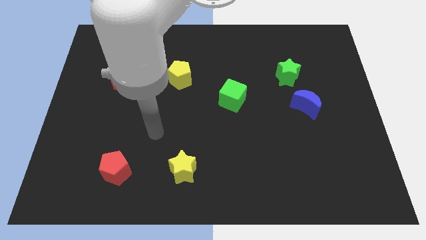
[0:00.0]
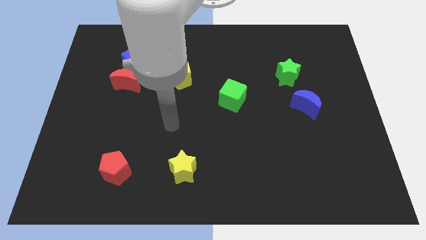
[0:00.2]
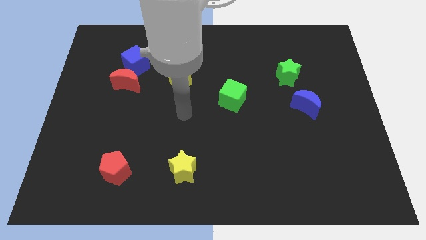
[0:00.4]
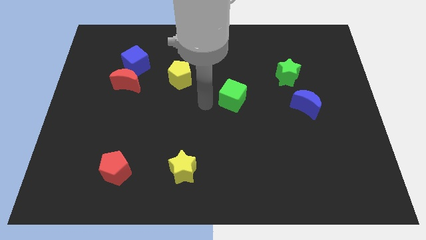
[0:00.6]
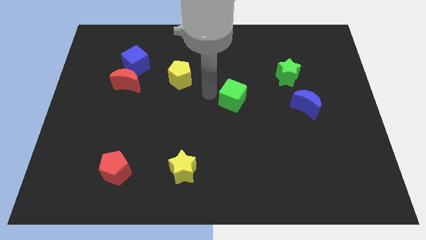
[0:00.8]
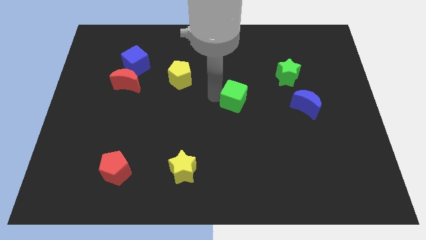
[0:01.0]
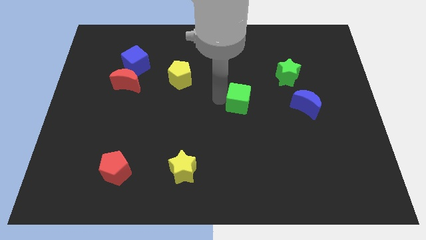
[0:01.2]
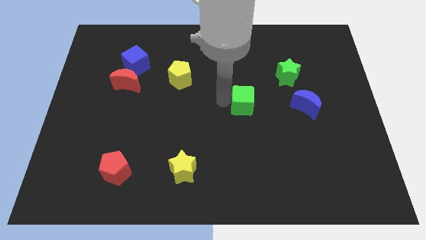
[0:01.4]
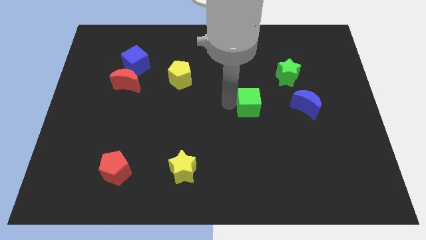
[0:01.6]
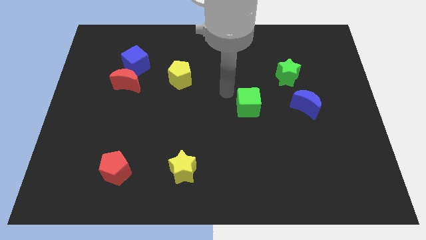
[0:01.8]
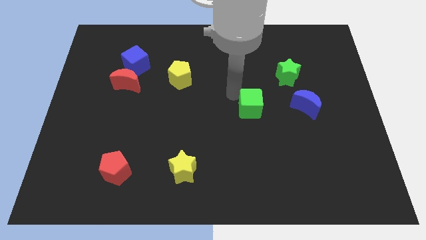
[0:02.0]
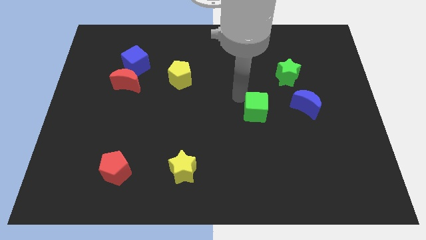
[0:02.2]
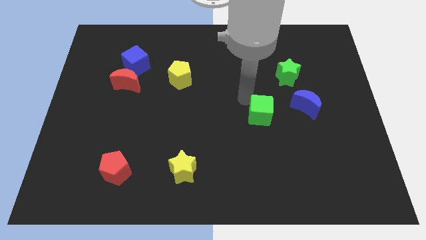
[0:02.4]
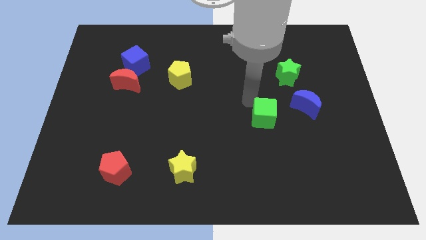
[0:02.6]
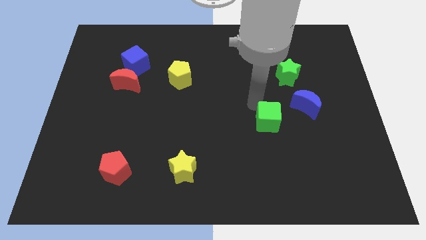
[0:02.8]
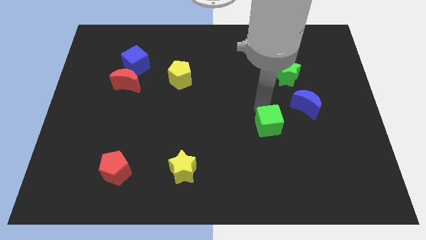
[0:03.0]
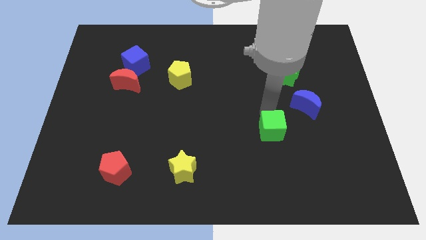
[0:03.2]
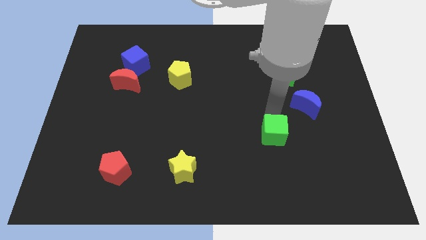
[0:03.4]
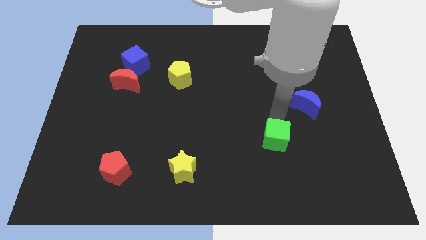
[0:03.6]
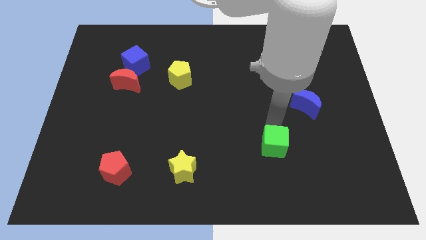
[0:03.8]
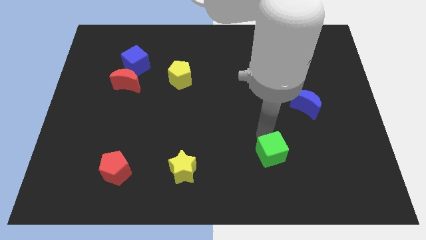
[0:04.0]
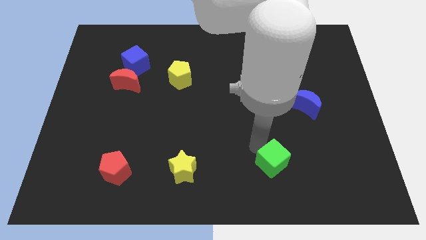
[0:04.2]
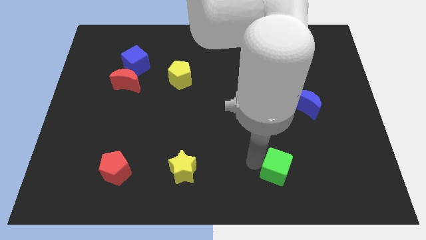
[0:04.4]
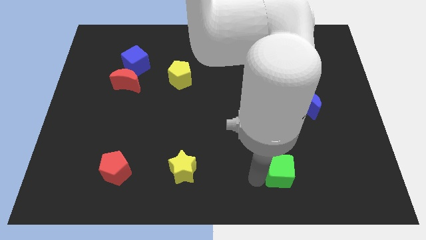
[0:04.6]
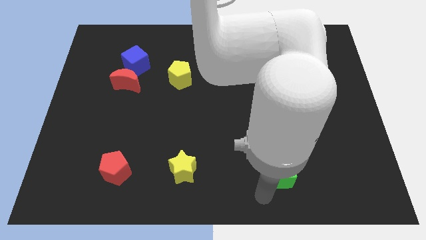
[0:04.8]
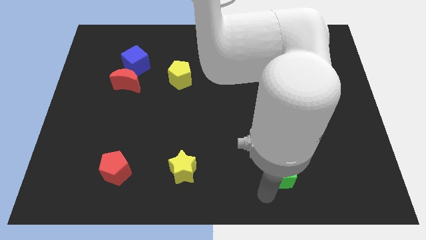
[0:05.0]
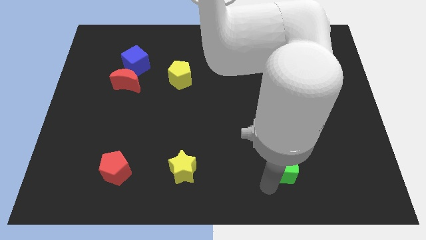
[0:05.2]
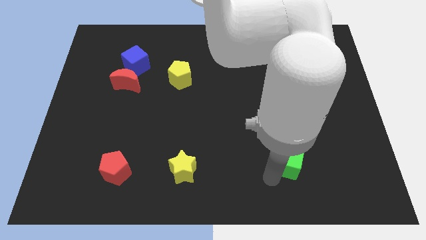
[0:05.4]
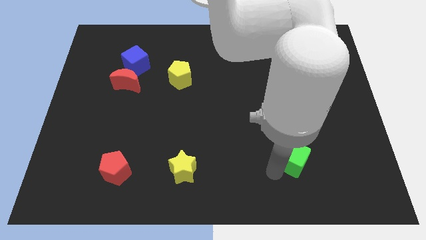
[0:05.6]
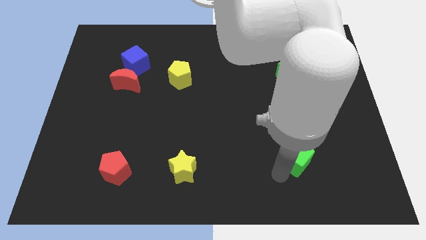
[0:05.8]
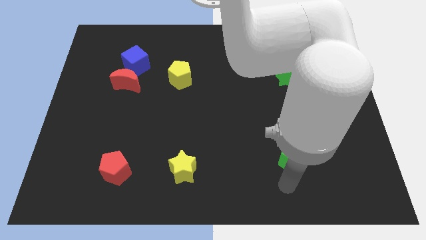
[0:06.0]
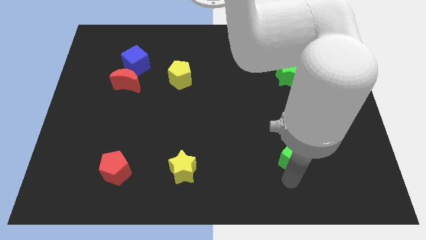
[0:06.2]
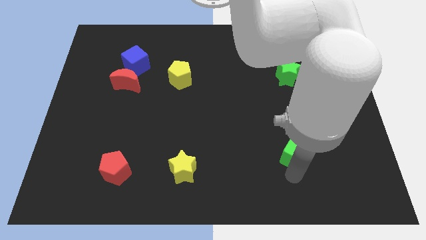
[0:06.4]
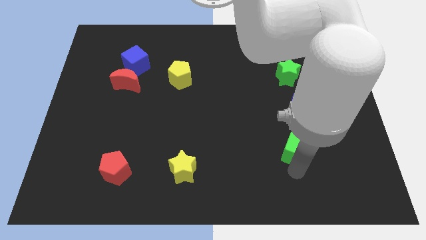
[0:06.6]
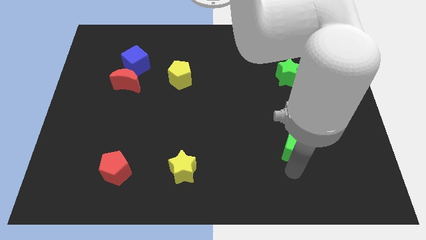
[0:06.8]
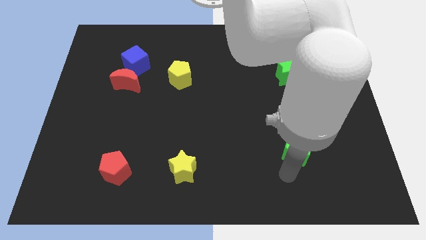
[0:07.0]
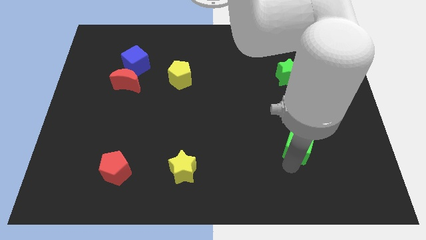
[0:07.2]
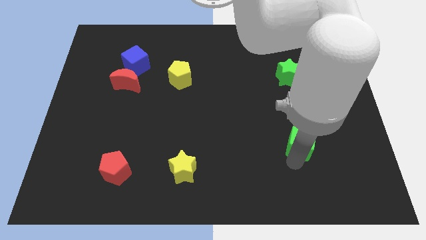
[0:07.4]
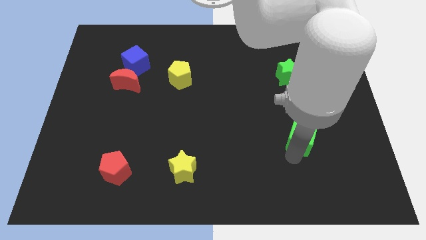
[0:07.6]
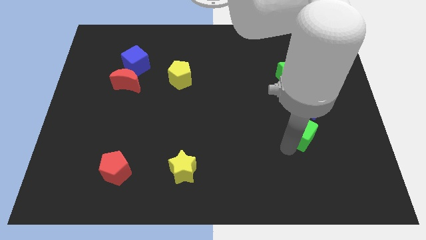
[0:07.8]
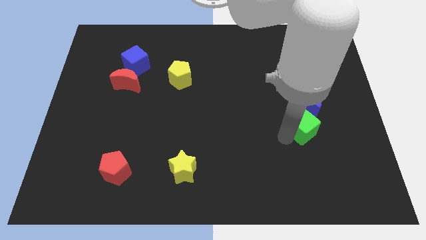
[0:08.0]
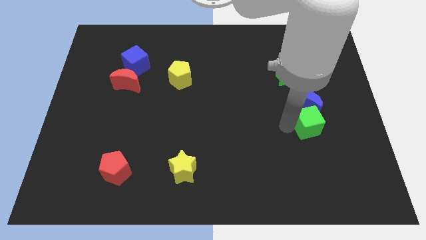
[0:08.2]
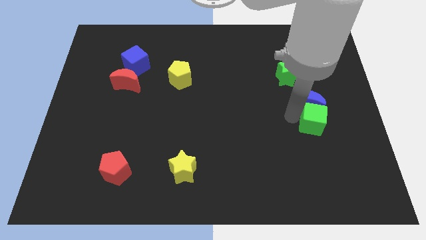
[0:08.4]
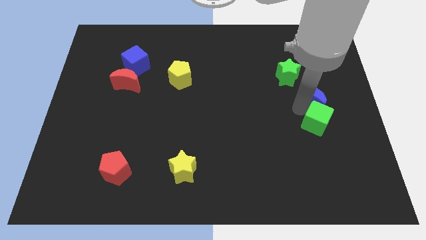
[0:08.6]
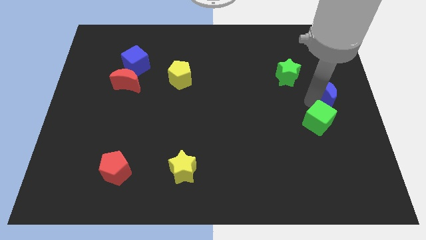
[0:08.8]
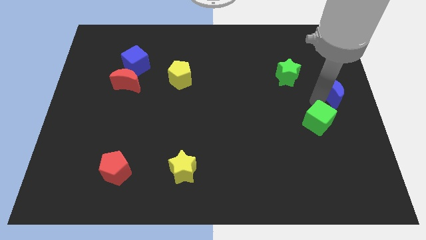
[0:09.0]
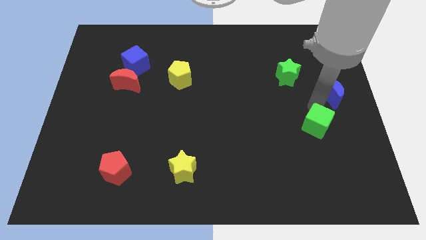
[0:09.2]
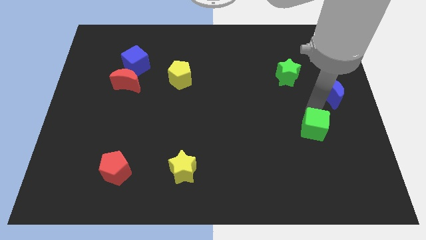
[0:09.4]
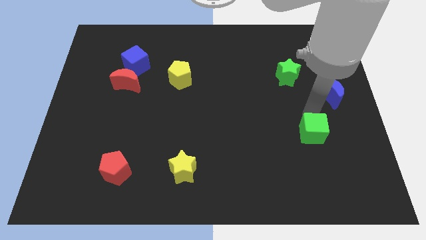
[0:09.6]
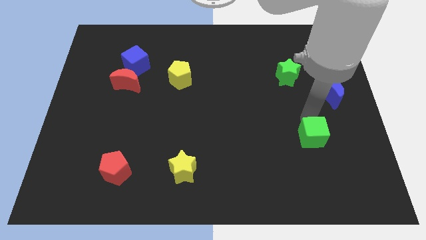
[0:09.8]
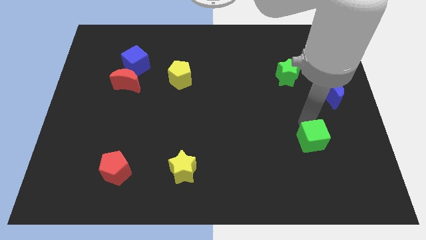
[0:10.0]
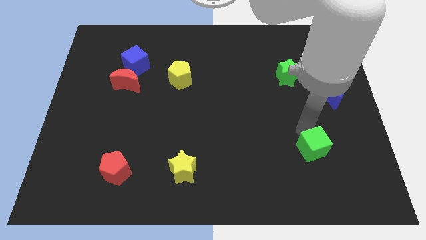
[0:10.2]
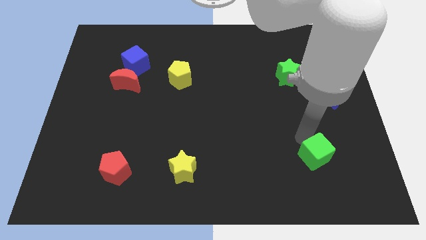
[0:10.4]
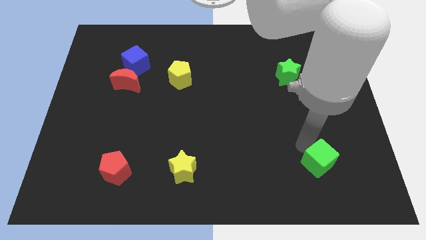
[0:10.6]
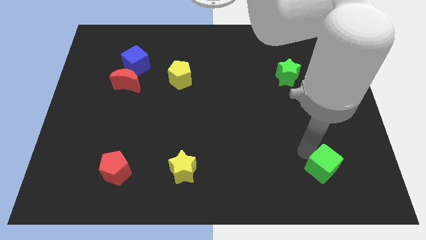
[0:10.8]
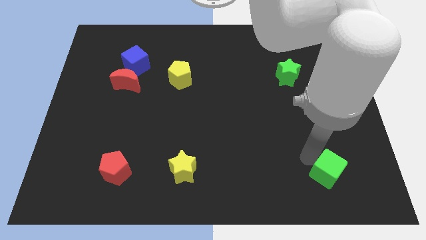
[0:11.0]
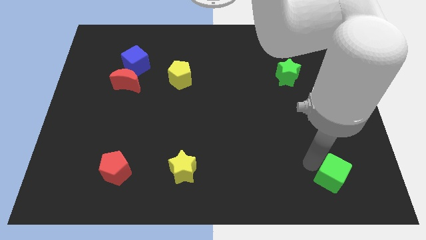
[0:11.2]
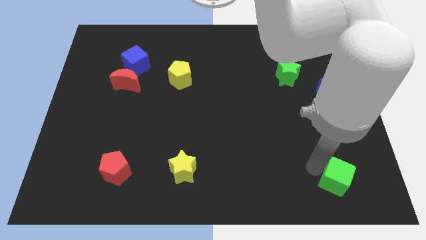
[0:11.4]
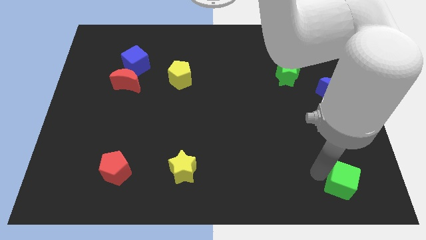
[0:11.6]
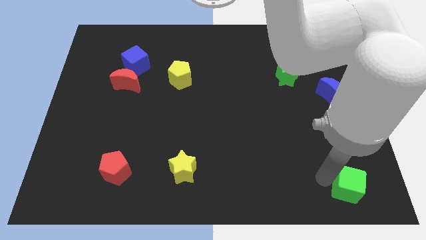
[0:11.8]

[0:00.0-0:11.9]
push the green cube to the bottom right

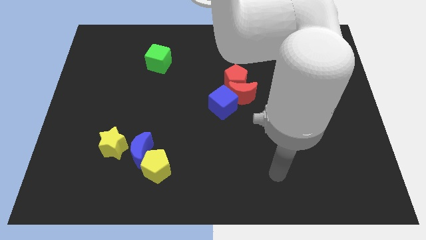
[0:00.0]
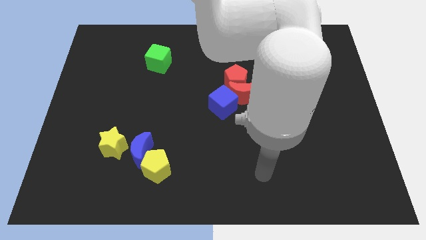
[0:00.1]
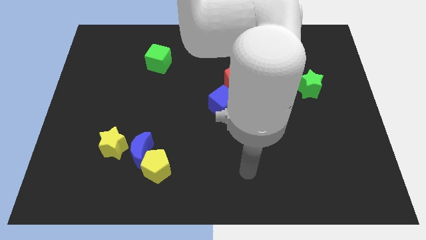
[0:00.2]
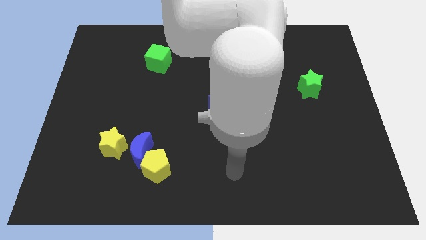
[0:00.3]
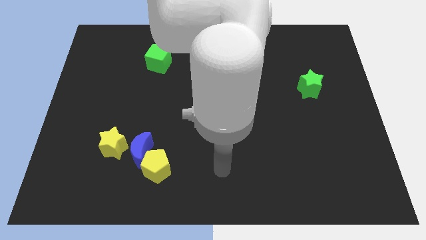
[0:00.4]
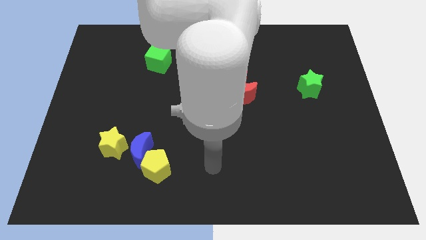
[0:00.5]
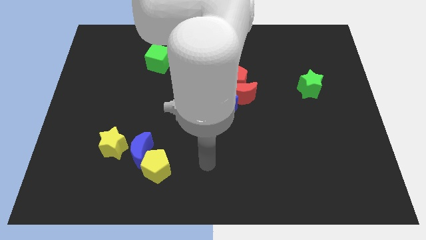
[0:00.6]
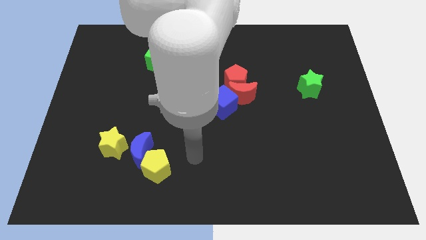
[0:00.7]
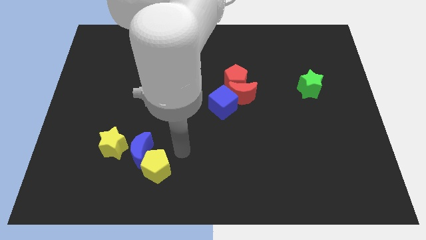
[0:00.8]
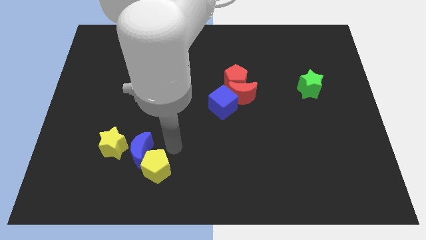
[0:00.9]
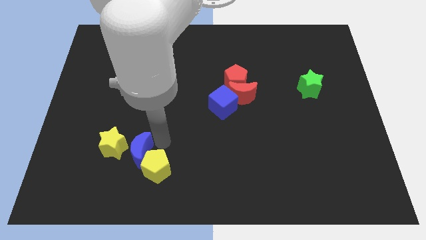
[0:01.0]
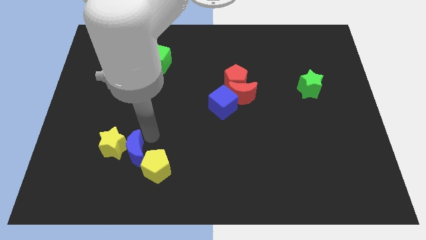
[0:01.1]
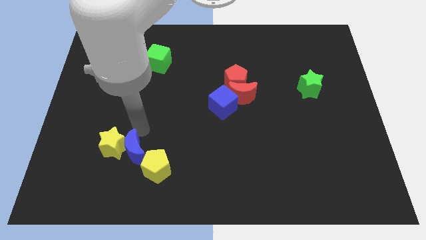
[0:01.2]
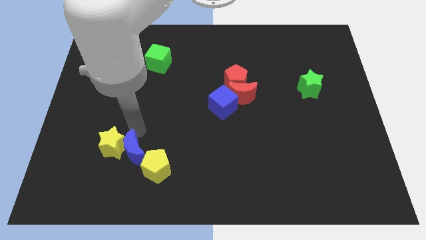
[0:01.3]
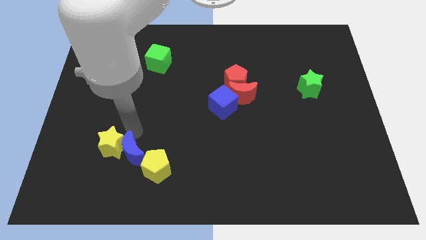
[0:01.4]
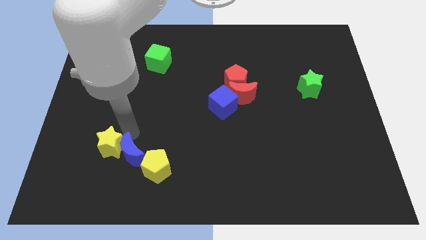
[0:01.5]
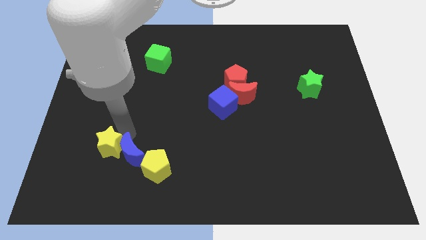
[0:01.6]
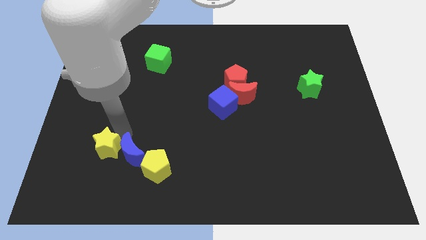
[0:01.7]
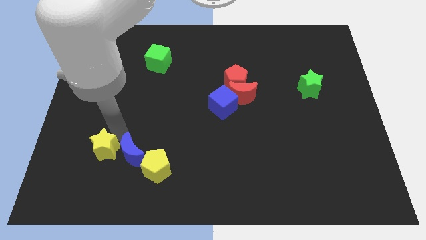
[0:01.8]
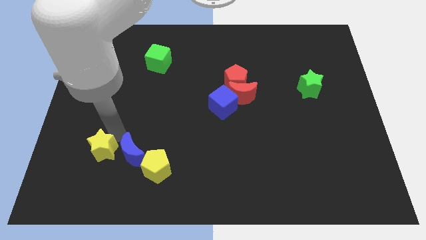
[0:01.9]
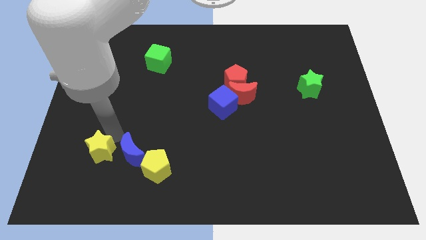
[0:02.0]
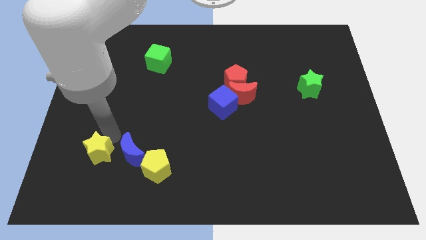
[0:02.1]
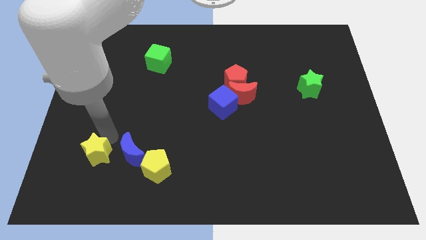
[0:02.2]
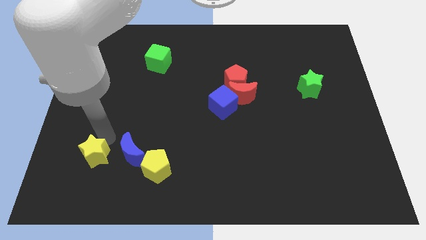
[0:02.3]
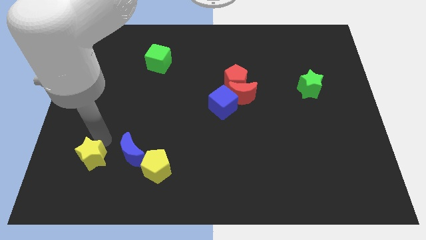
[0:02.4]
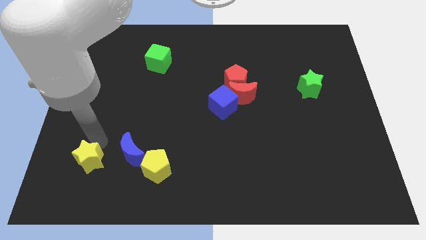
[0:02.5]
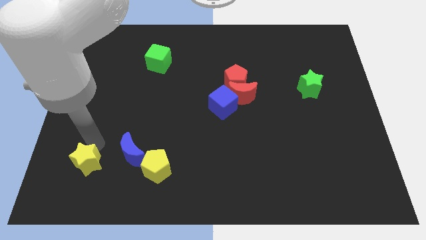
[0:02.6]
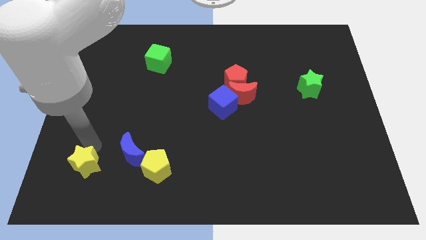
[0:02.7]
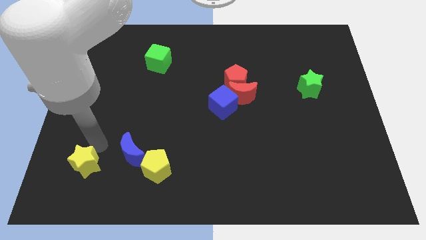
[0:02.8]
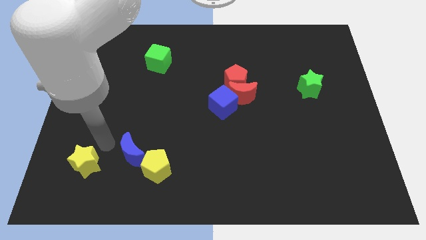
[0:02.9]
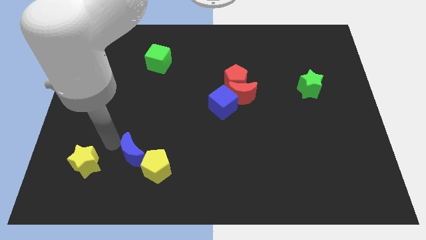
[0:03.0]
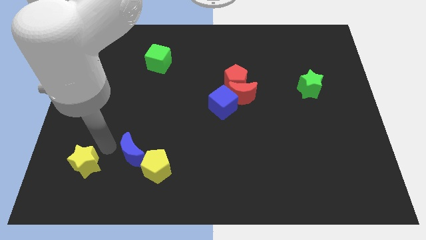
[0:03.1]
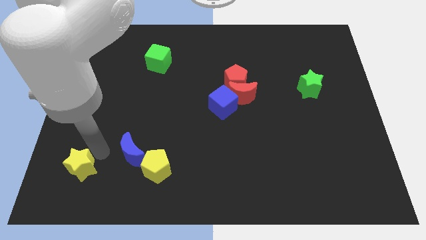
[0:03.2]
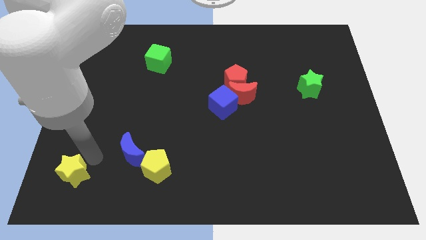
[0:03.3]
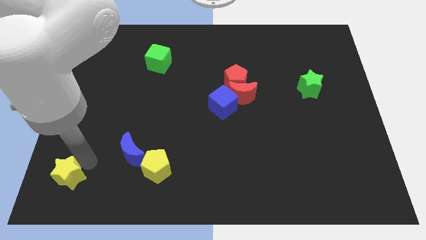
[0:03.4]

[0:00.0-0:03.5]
slide the yellow star to the bottom left of the board
